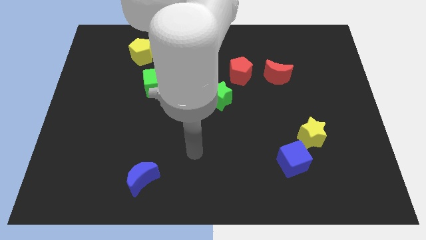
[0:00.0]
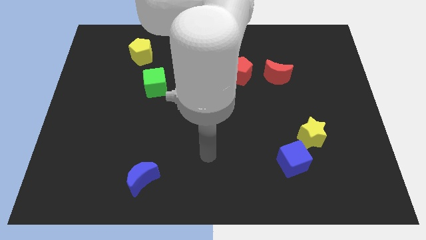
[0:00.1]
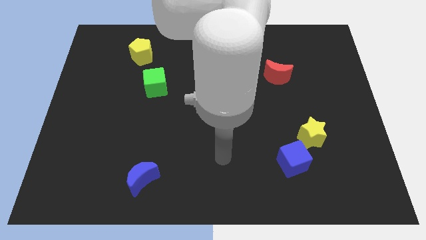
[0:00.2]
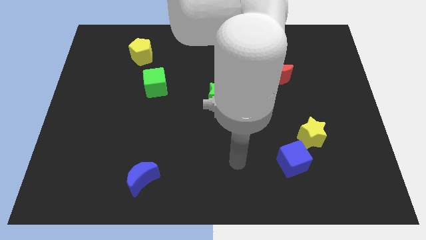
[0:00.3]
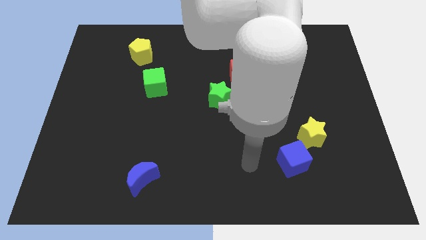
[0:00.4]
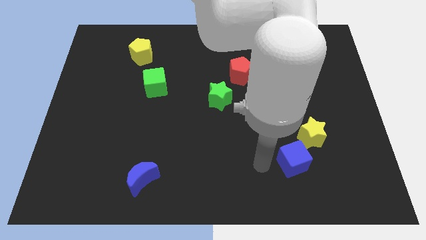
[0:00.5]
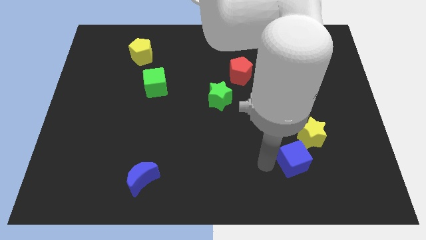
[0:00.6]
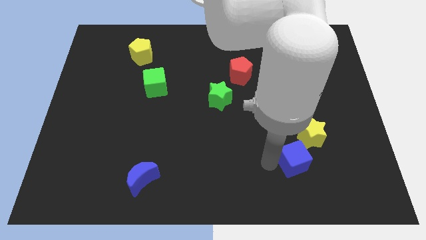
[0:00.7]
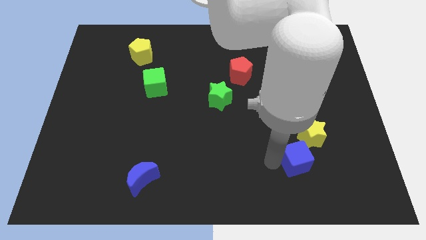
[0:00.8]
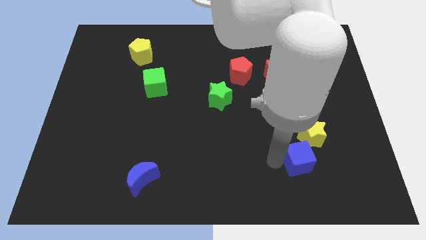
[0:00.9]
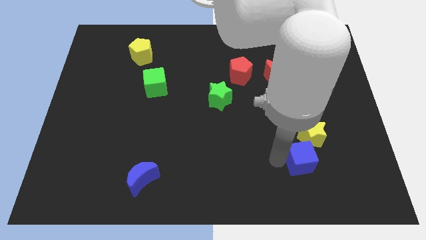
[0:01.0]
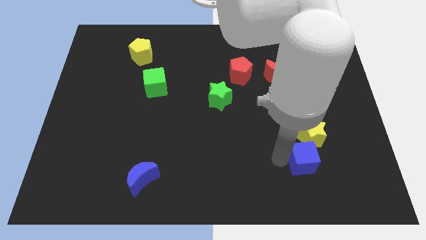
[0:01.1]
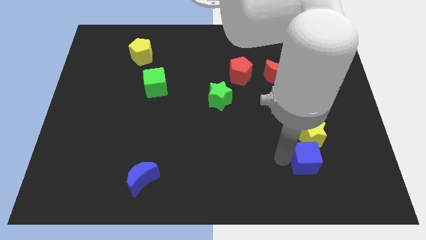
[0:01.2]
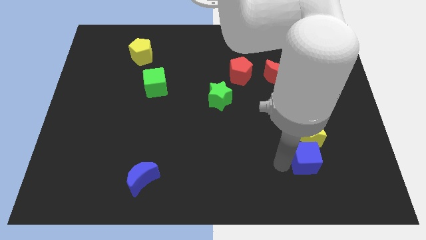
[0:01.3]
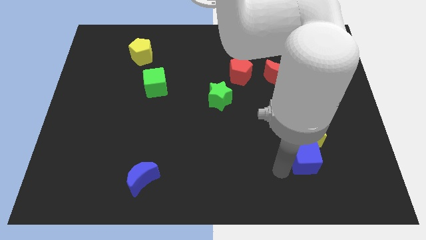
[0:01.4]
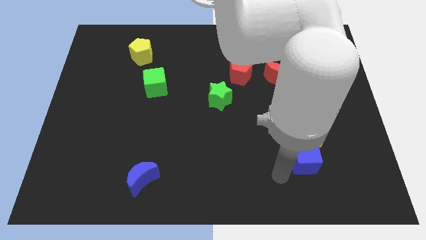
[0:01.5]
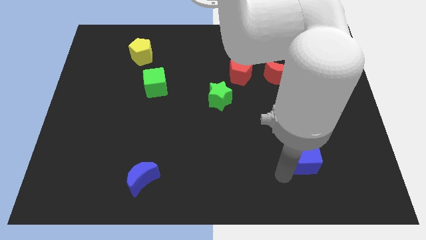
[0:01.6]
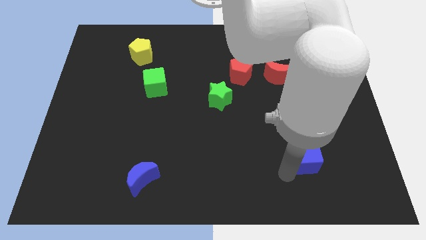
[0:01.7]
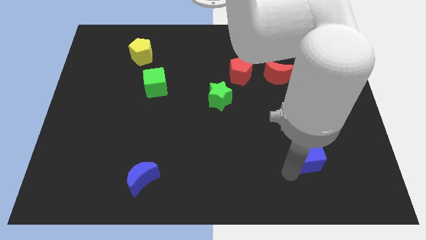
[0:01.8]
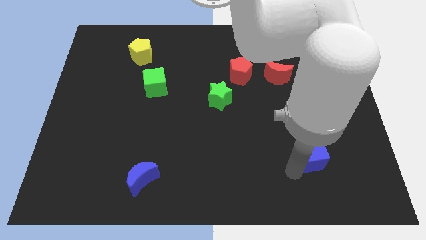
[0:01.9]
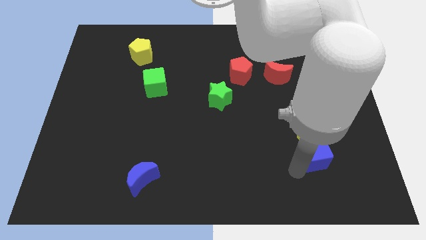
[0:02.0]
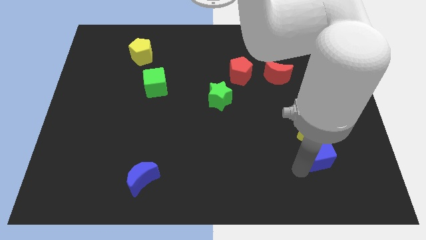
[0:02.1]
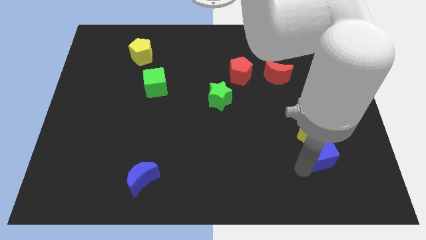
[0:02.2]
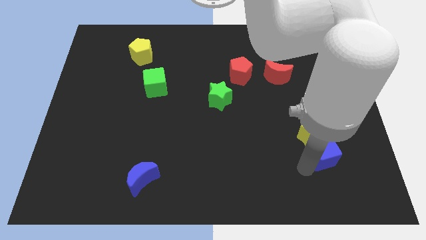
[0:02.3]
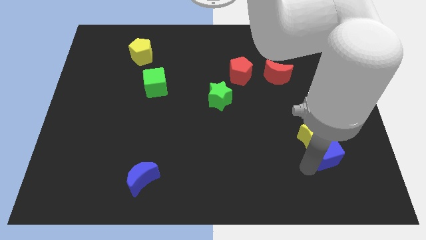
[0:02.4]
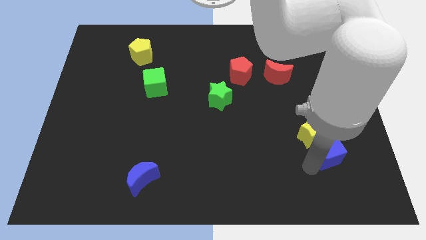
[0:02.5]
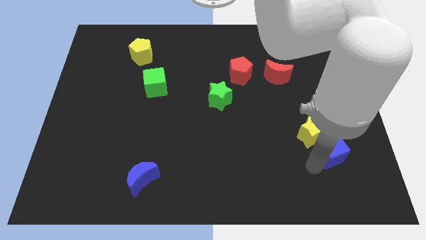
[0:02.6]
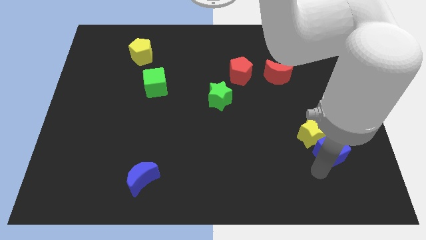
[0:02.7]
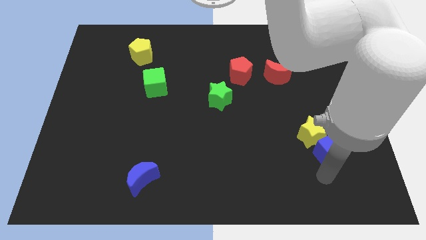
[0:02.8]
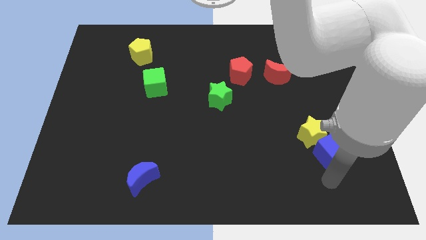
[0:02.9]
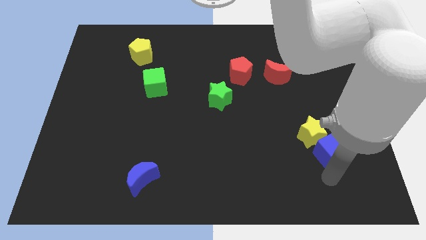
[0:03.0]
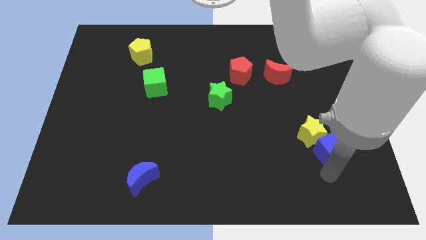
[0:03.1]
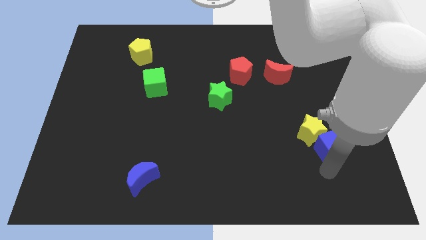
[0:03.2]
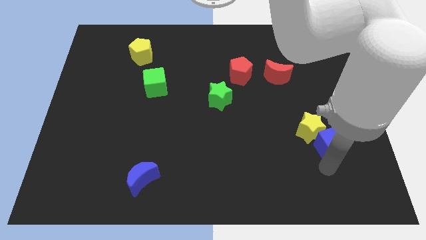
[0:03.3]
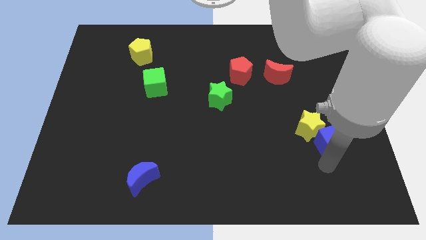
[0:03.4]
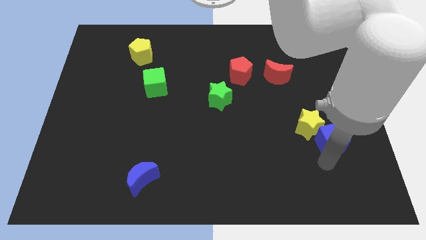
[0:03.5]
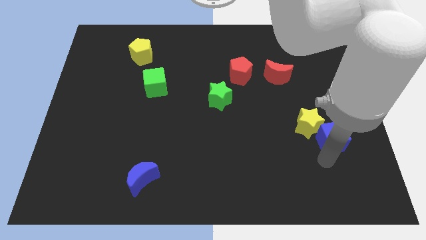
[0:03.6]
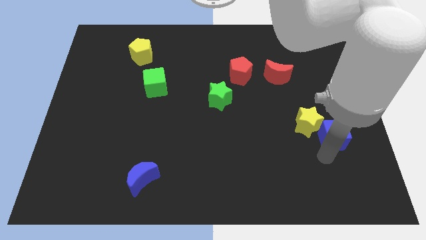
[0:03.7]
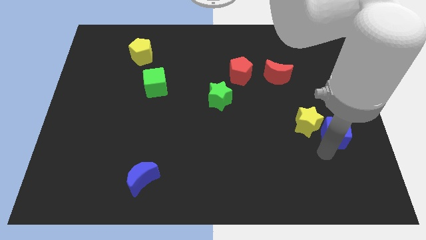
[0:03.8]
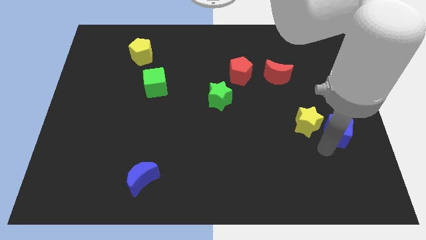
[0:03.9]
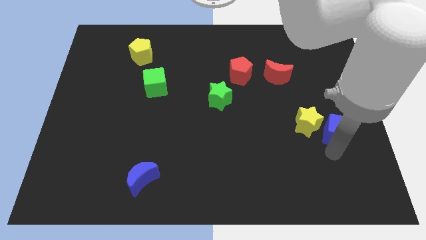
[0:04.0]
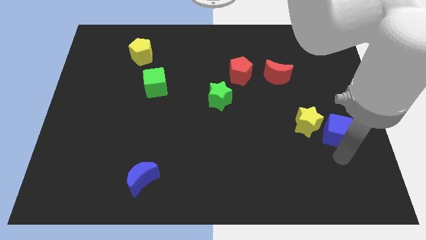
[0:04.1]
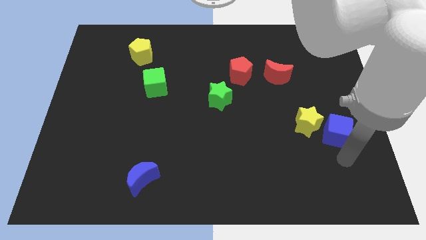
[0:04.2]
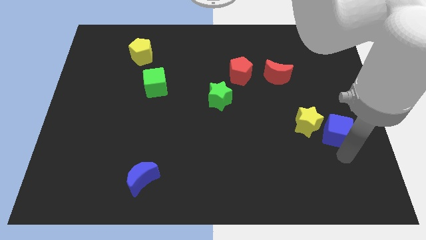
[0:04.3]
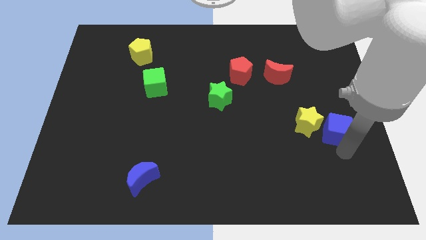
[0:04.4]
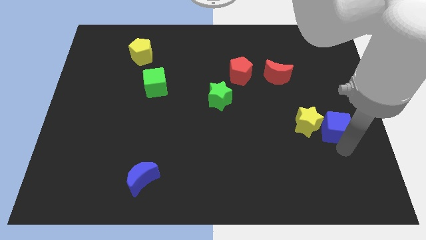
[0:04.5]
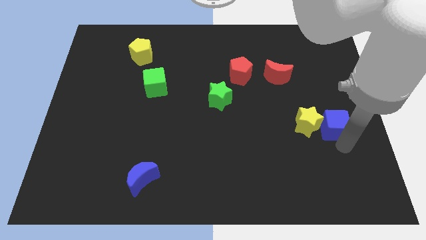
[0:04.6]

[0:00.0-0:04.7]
put the blue cube to the top right side of the yellow star

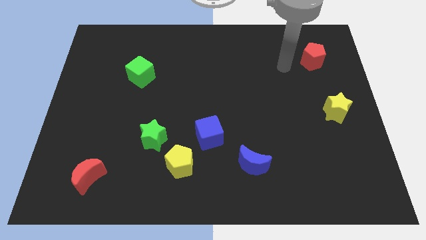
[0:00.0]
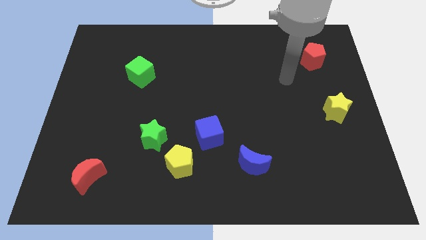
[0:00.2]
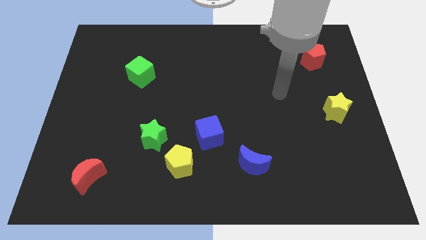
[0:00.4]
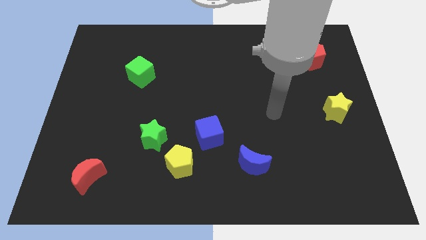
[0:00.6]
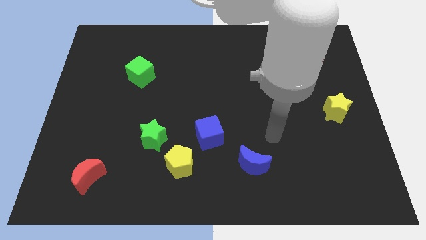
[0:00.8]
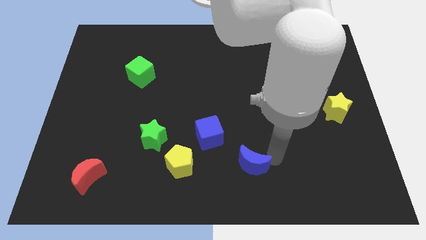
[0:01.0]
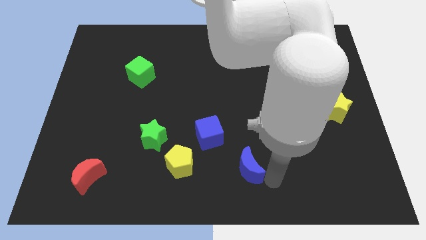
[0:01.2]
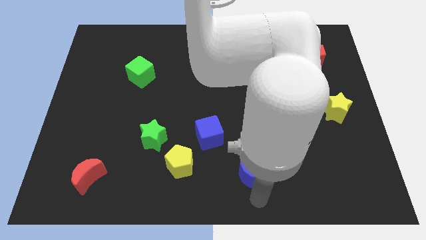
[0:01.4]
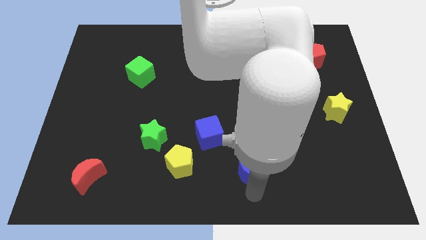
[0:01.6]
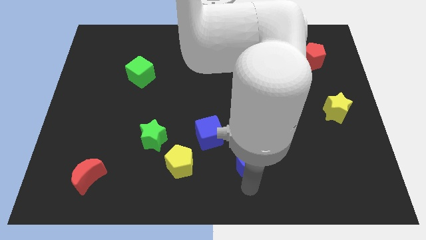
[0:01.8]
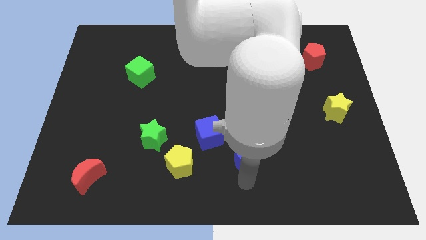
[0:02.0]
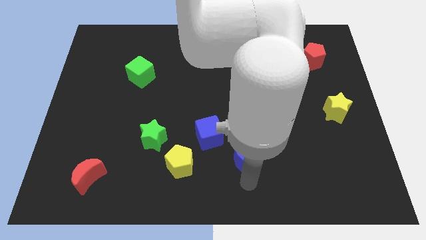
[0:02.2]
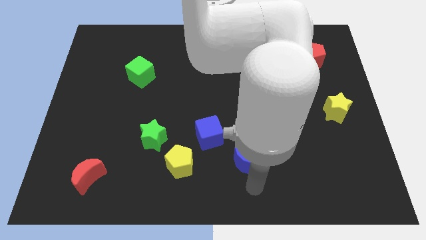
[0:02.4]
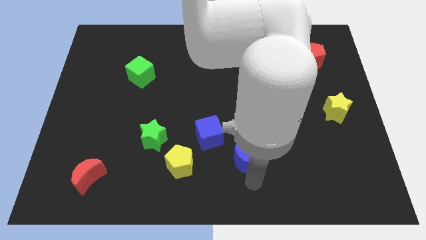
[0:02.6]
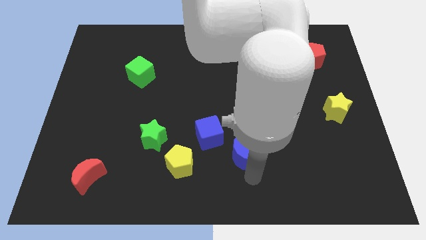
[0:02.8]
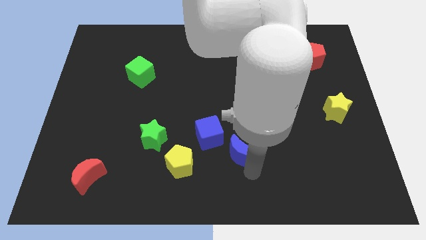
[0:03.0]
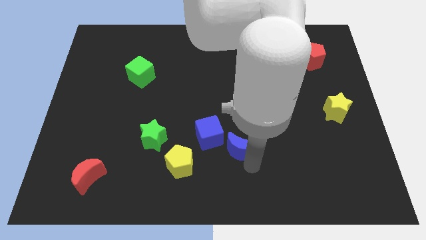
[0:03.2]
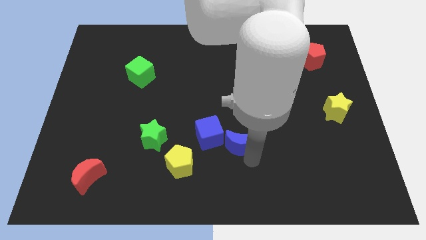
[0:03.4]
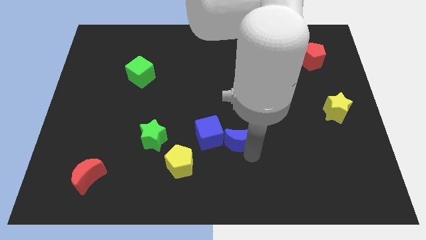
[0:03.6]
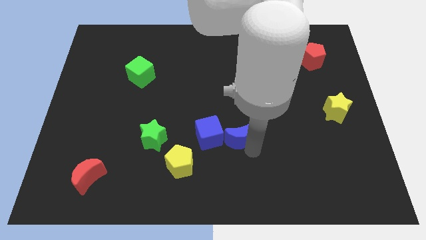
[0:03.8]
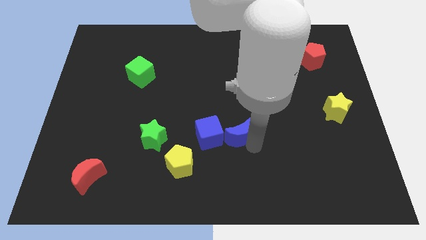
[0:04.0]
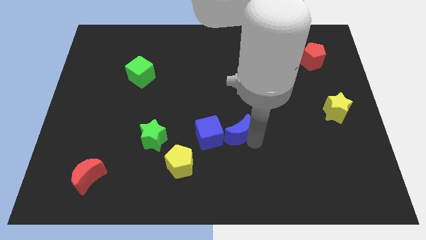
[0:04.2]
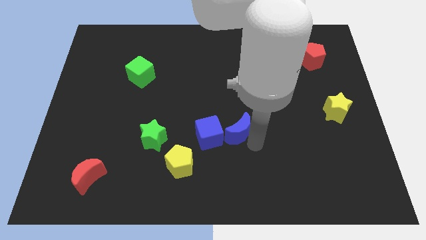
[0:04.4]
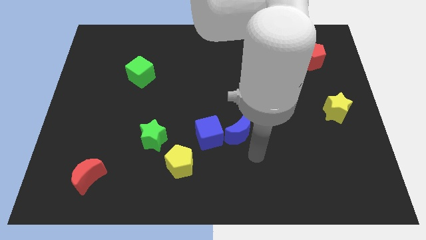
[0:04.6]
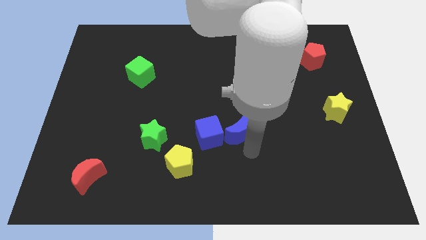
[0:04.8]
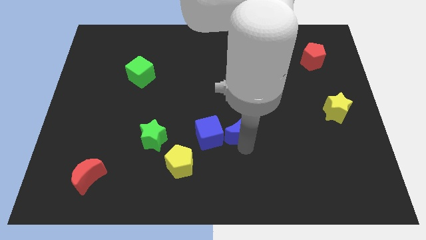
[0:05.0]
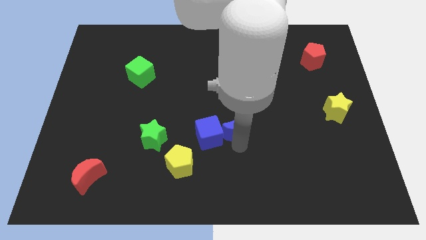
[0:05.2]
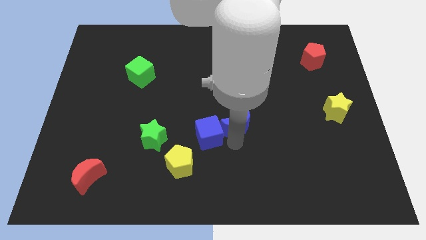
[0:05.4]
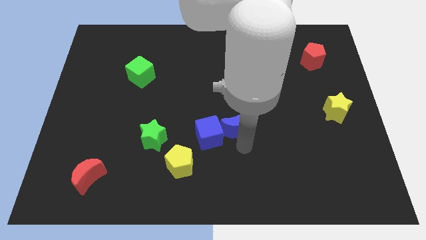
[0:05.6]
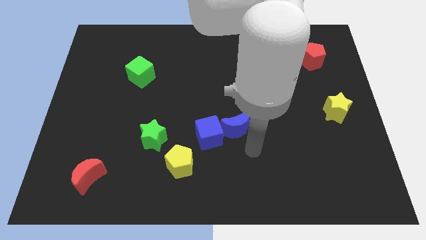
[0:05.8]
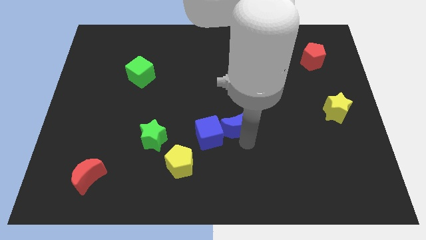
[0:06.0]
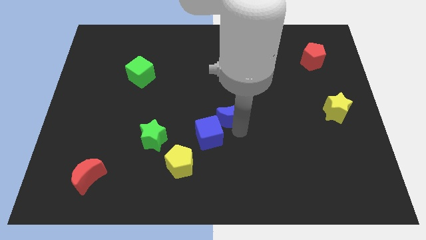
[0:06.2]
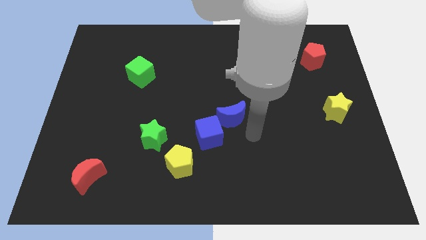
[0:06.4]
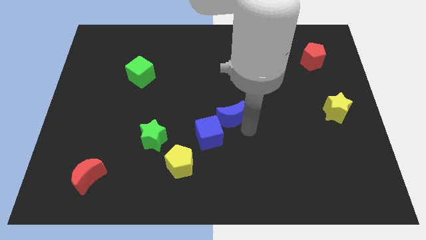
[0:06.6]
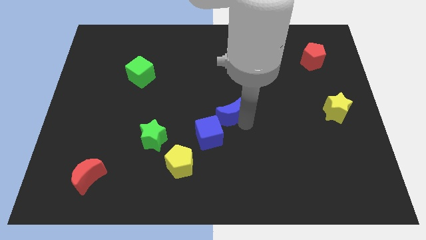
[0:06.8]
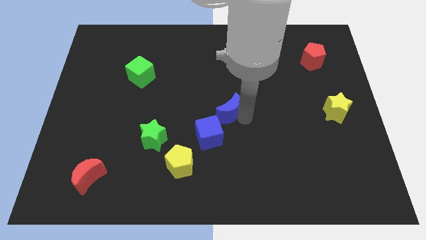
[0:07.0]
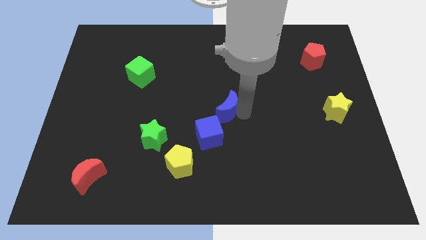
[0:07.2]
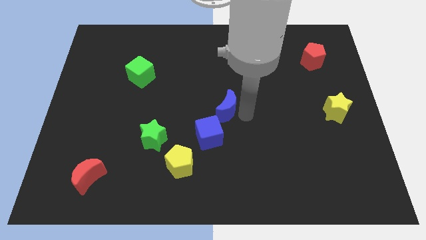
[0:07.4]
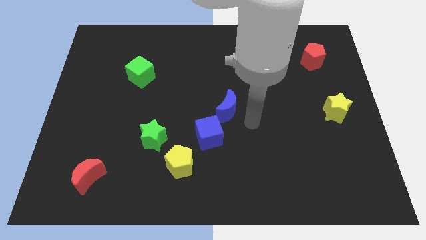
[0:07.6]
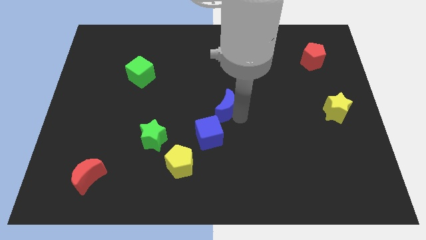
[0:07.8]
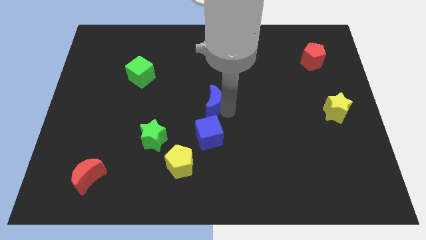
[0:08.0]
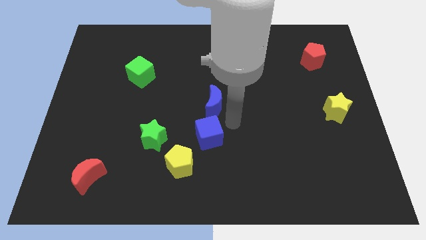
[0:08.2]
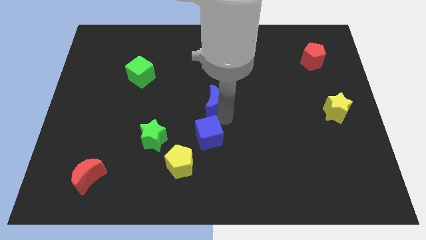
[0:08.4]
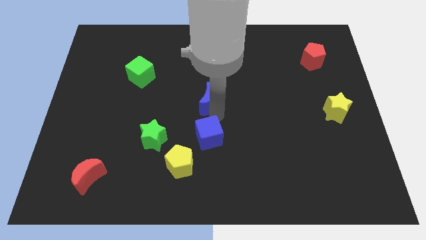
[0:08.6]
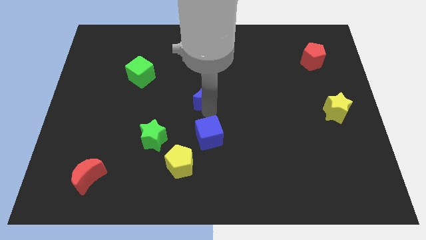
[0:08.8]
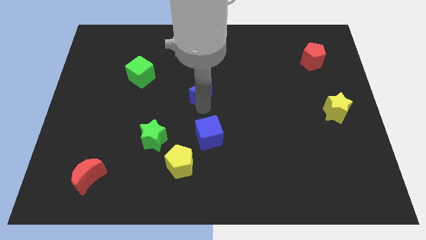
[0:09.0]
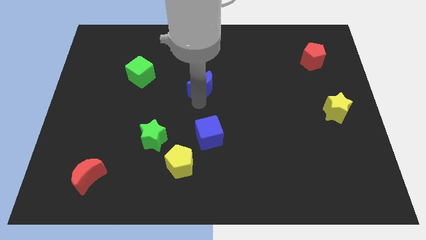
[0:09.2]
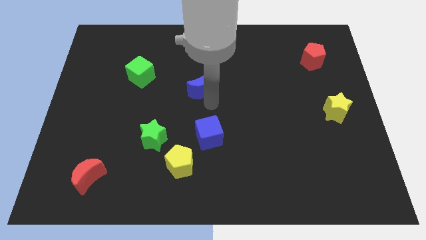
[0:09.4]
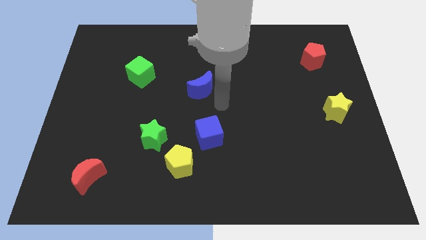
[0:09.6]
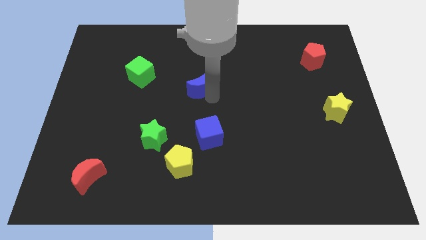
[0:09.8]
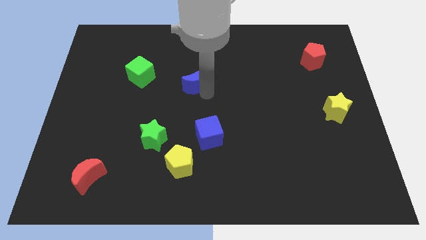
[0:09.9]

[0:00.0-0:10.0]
put the blue moon to the right side of the green cube
